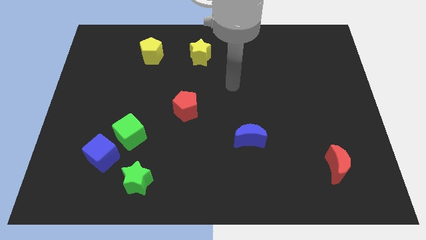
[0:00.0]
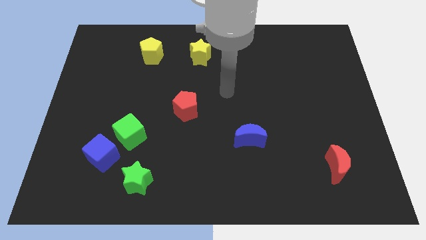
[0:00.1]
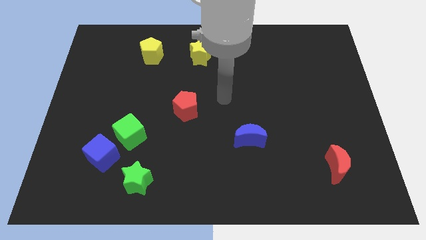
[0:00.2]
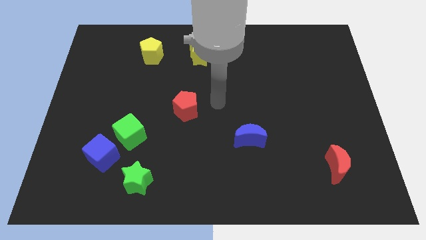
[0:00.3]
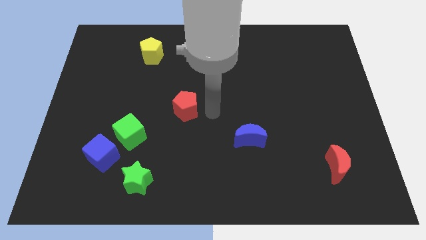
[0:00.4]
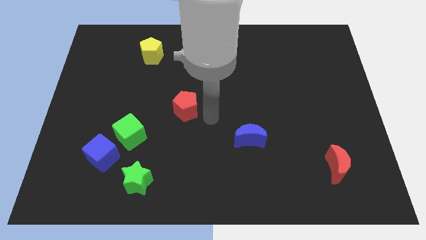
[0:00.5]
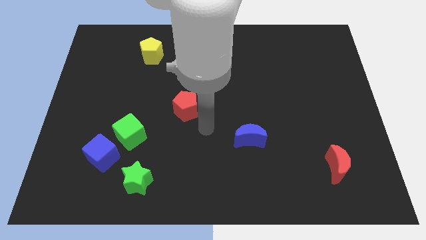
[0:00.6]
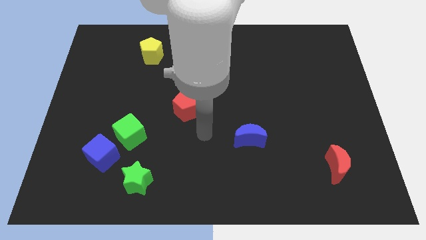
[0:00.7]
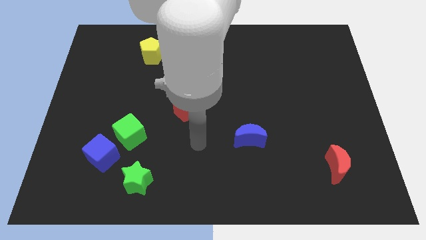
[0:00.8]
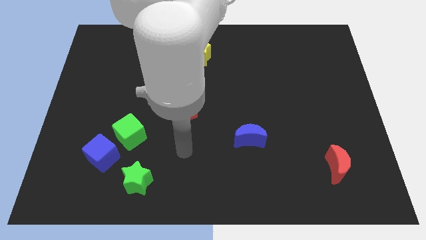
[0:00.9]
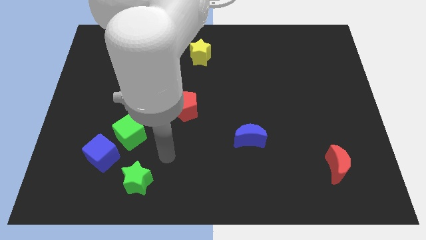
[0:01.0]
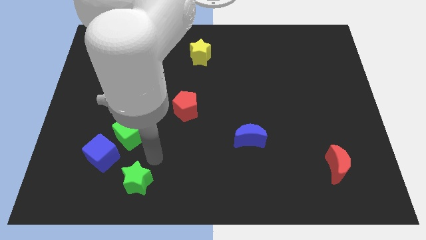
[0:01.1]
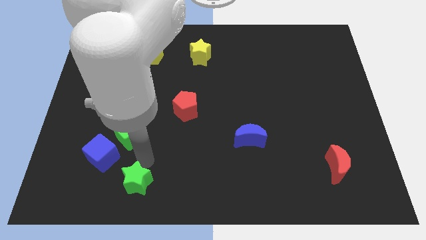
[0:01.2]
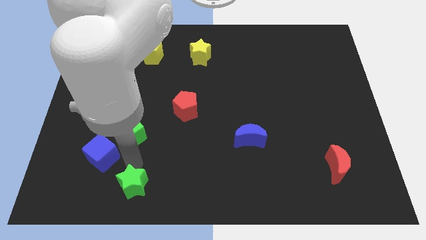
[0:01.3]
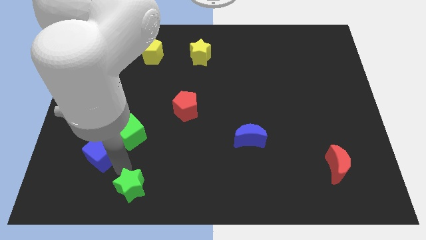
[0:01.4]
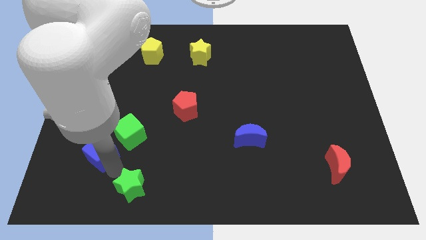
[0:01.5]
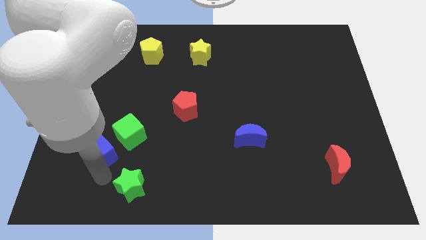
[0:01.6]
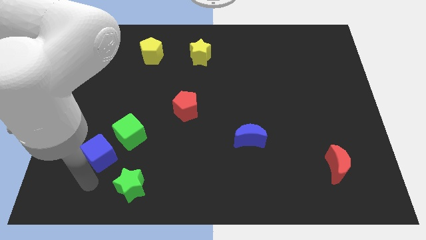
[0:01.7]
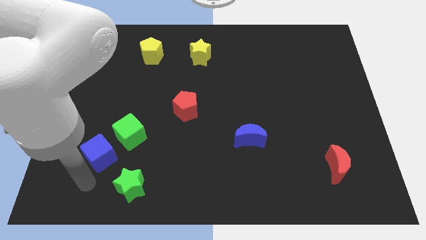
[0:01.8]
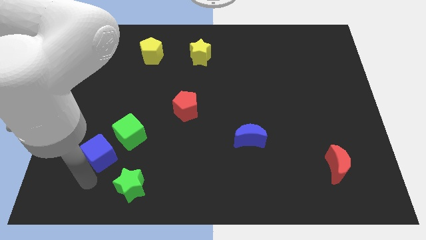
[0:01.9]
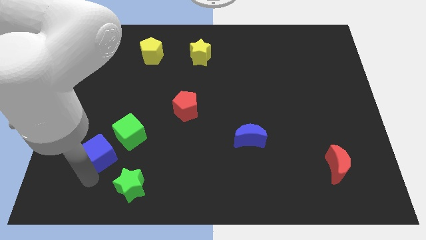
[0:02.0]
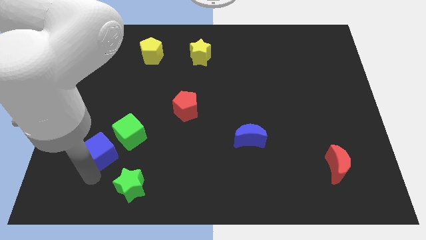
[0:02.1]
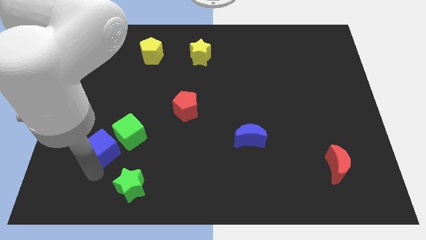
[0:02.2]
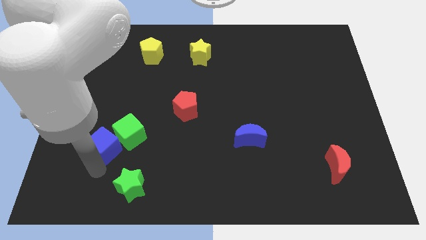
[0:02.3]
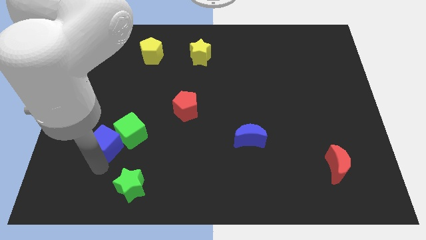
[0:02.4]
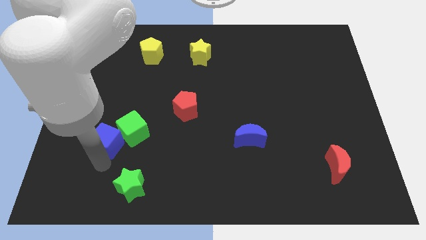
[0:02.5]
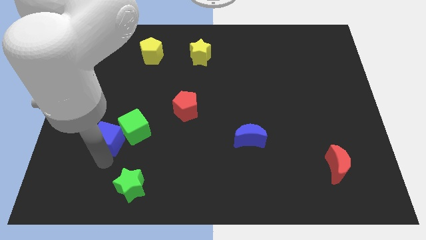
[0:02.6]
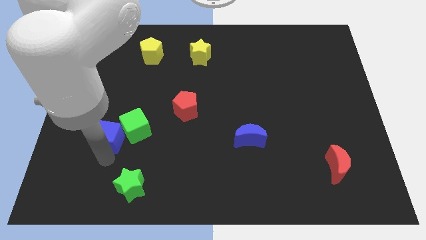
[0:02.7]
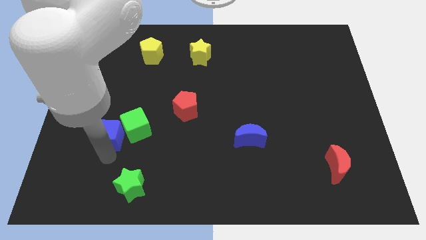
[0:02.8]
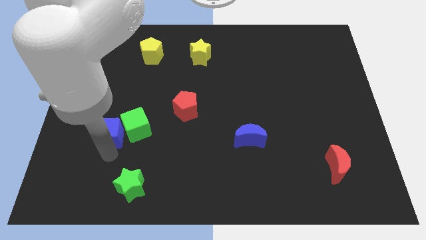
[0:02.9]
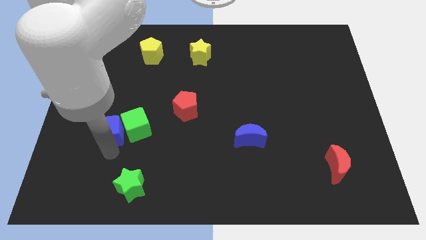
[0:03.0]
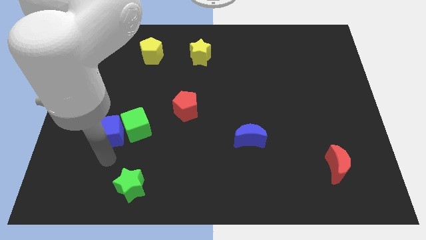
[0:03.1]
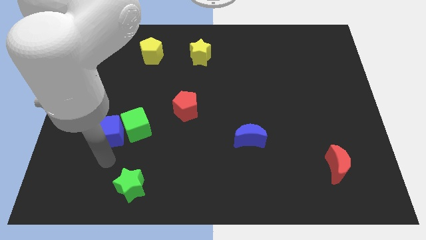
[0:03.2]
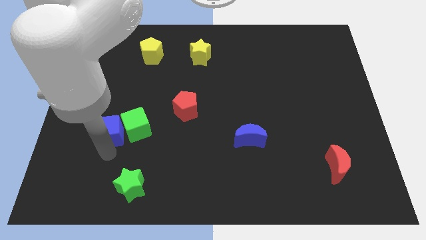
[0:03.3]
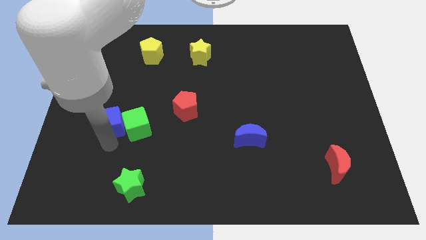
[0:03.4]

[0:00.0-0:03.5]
slide the blue cube a bit up

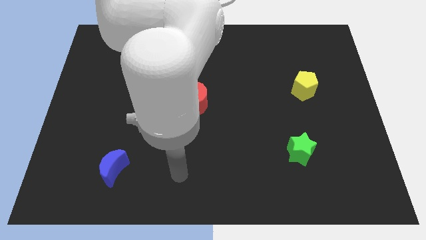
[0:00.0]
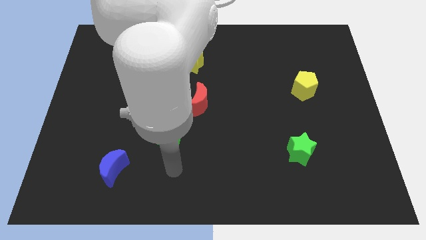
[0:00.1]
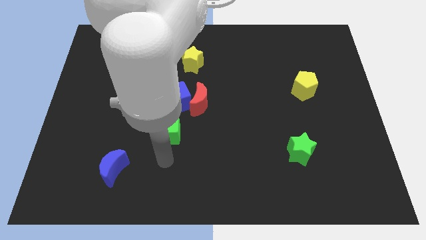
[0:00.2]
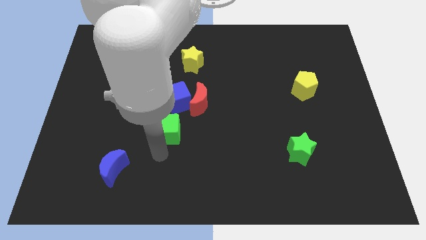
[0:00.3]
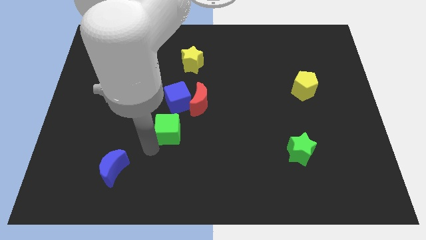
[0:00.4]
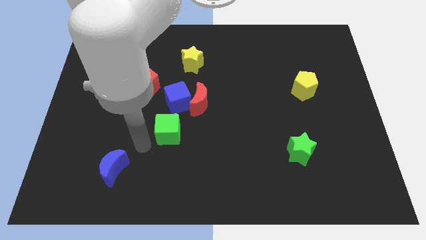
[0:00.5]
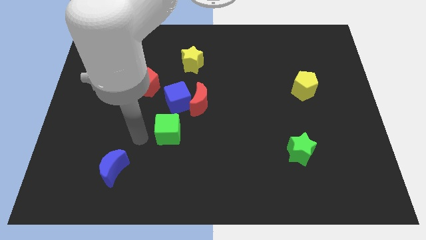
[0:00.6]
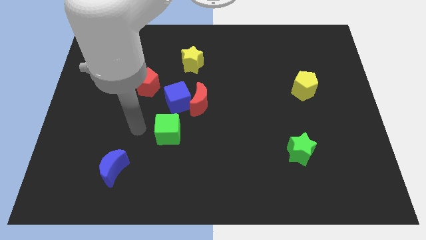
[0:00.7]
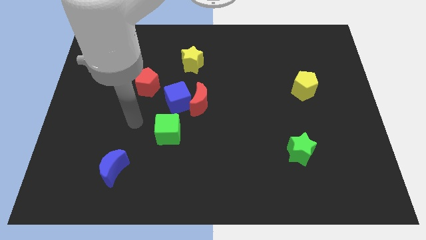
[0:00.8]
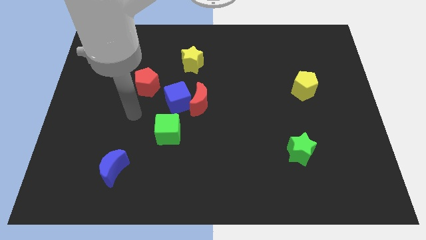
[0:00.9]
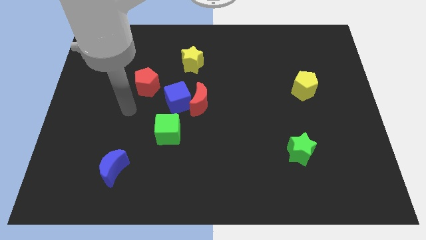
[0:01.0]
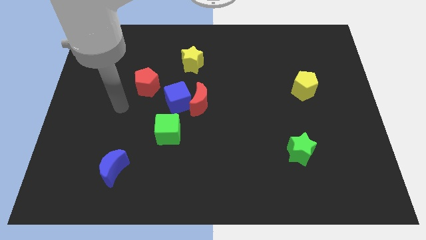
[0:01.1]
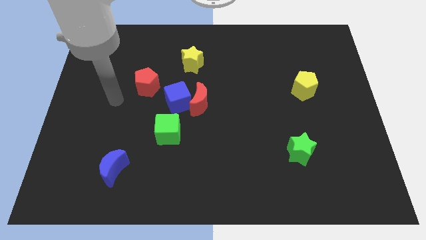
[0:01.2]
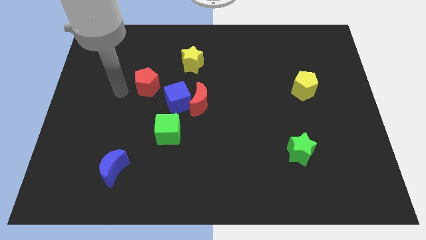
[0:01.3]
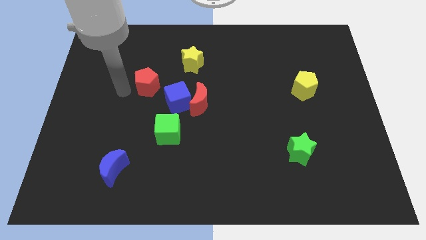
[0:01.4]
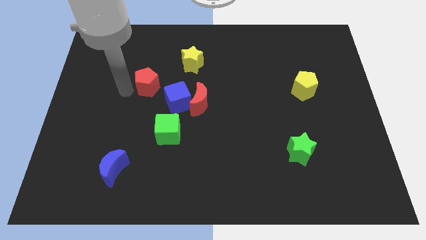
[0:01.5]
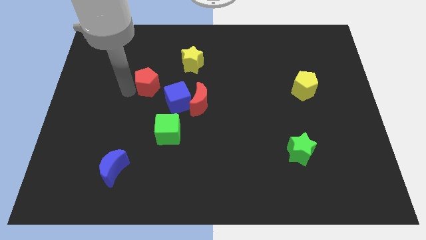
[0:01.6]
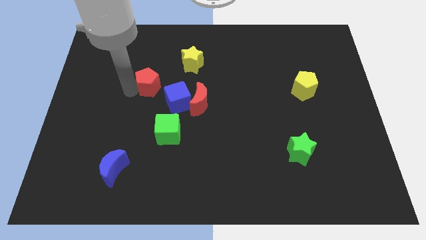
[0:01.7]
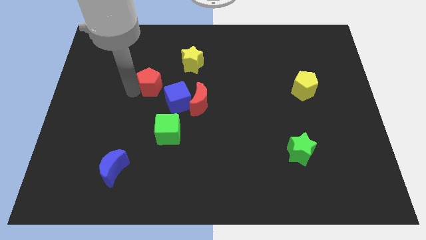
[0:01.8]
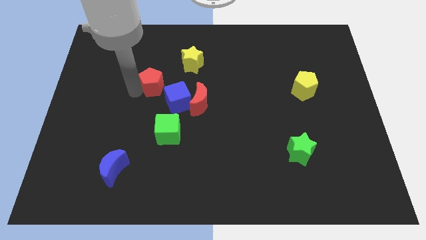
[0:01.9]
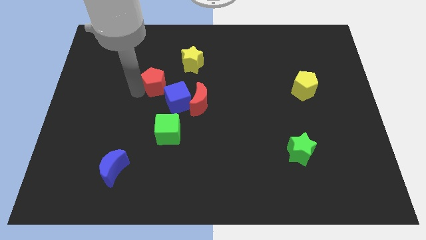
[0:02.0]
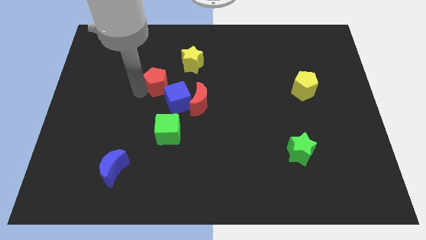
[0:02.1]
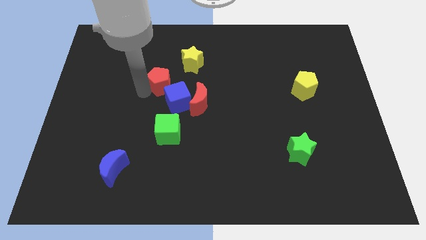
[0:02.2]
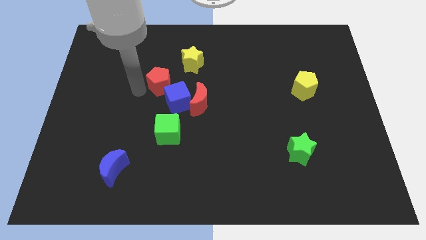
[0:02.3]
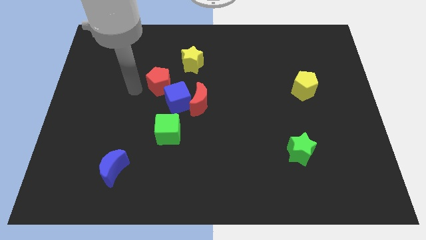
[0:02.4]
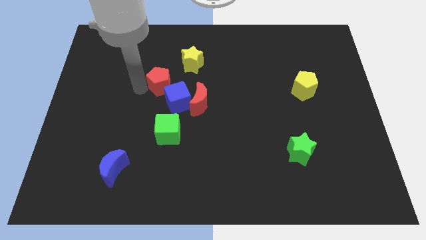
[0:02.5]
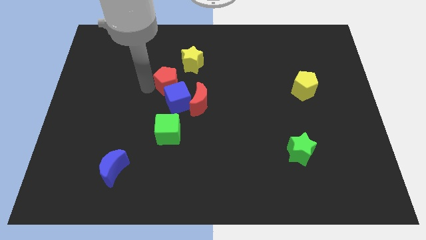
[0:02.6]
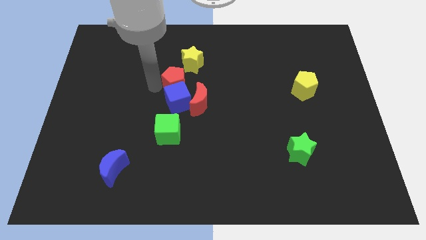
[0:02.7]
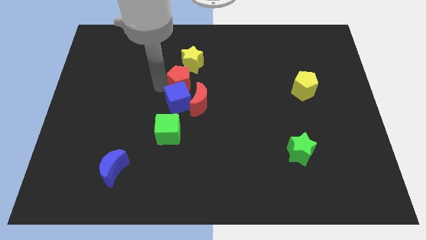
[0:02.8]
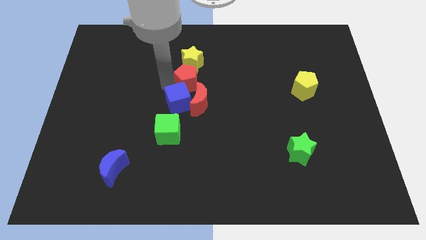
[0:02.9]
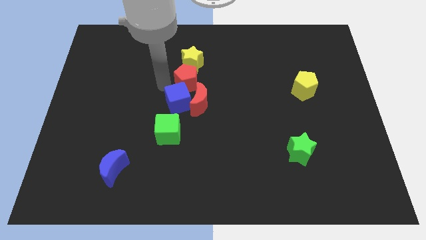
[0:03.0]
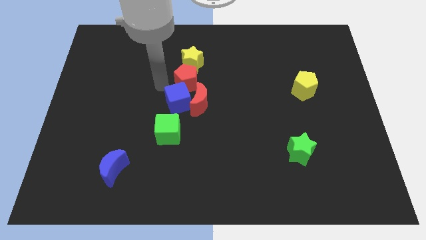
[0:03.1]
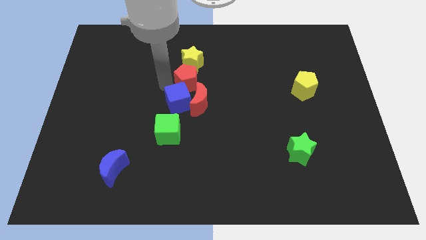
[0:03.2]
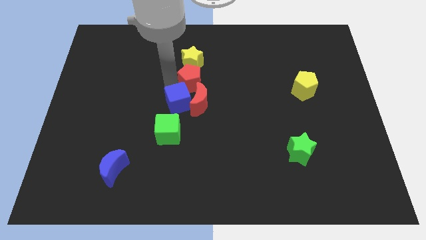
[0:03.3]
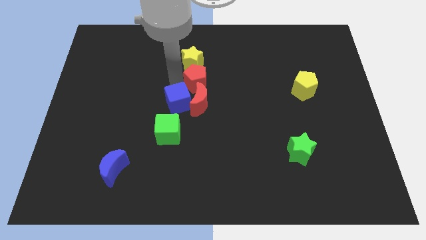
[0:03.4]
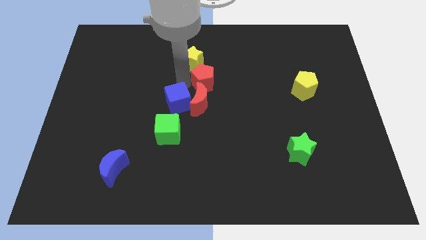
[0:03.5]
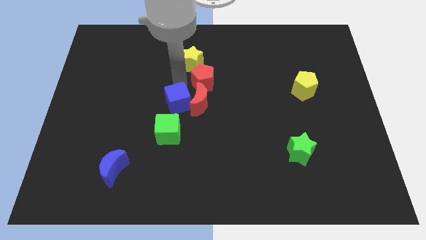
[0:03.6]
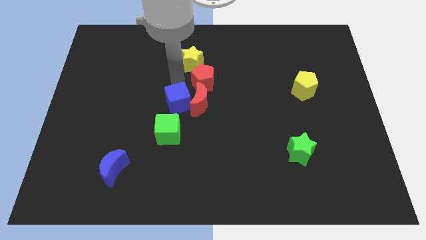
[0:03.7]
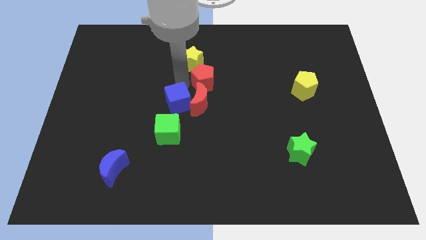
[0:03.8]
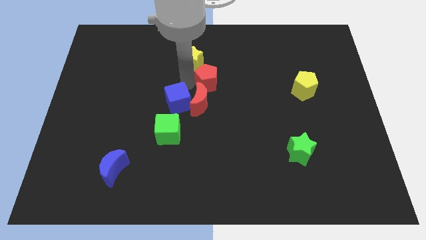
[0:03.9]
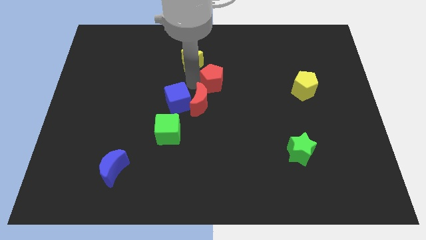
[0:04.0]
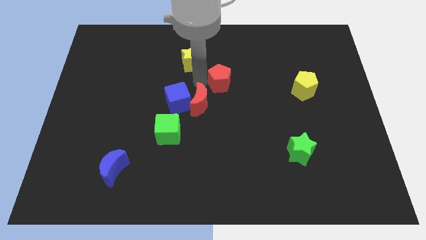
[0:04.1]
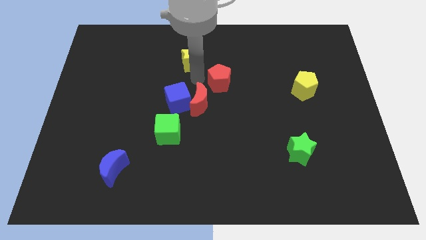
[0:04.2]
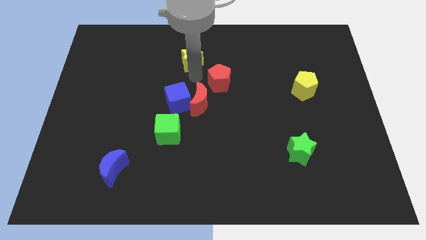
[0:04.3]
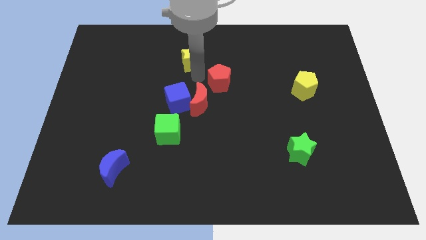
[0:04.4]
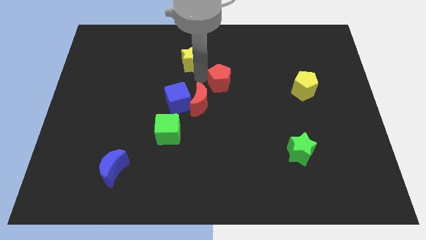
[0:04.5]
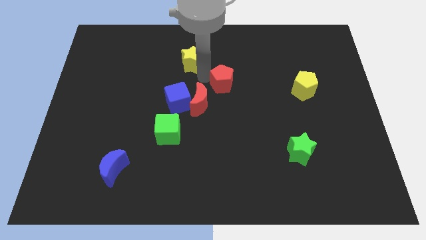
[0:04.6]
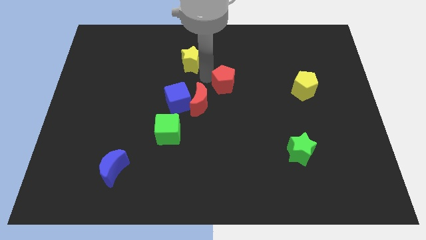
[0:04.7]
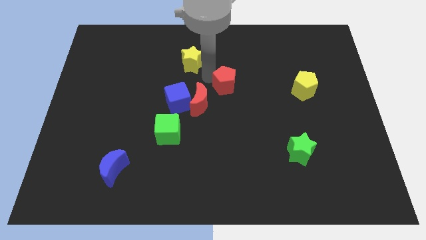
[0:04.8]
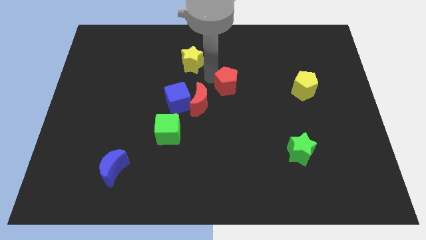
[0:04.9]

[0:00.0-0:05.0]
push the red pentagon right
